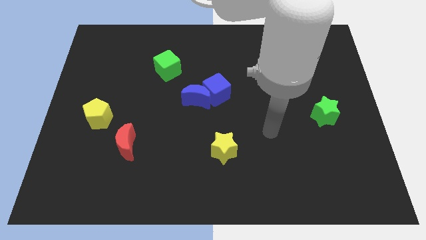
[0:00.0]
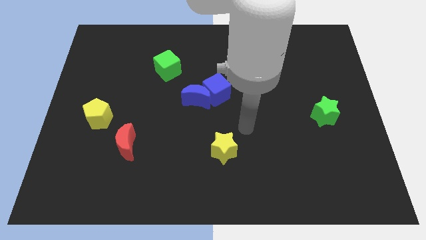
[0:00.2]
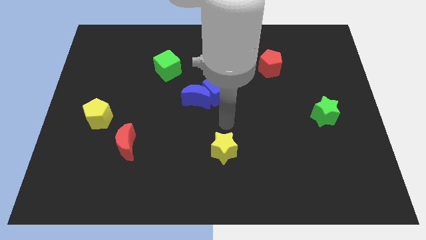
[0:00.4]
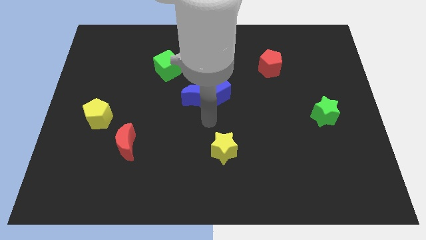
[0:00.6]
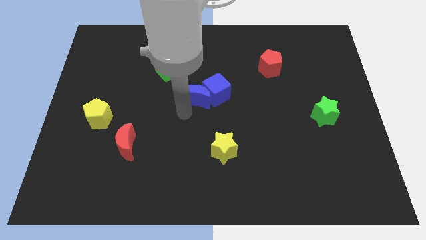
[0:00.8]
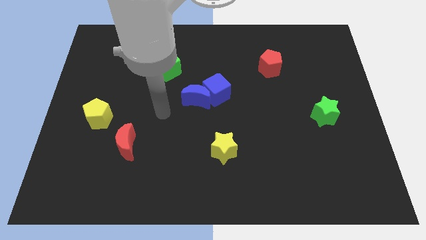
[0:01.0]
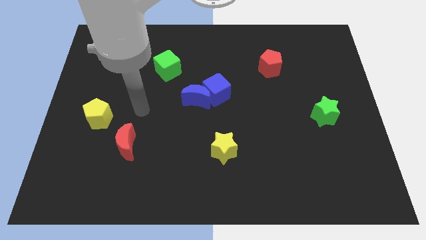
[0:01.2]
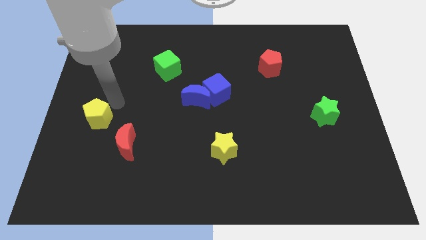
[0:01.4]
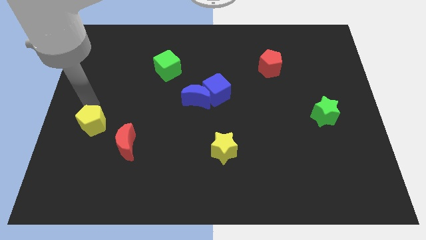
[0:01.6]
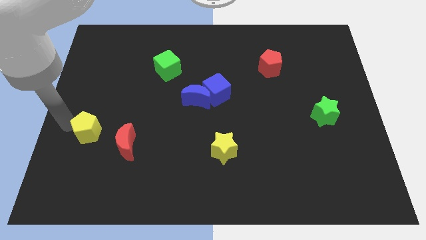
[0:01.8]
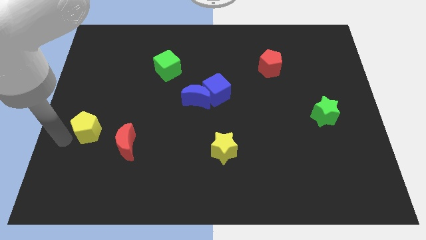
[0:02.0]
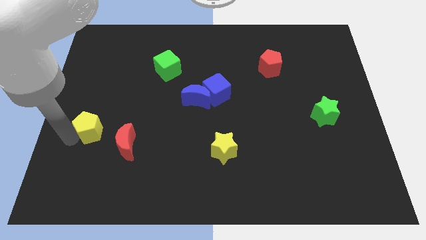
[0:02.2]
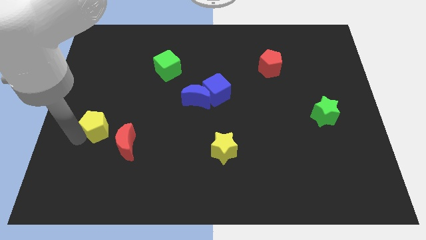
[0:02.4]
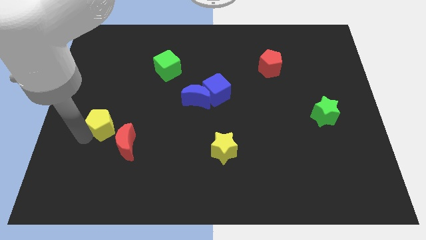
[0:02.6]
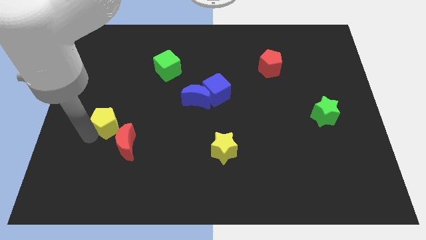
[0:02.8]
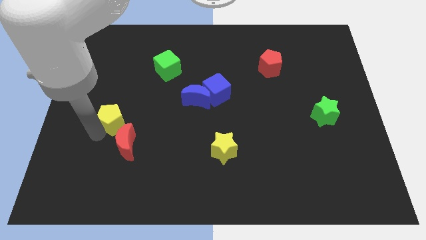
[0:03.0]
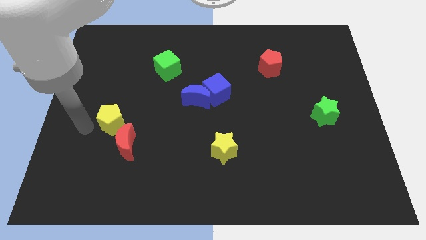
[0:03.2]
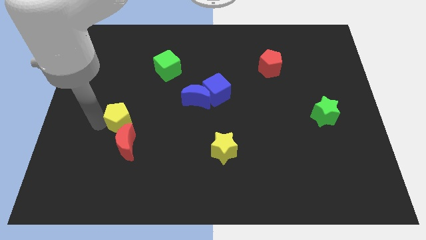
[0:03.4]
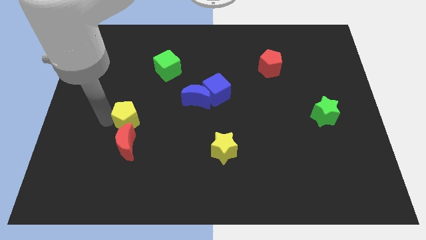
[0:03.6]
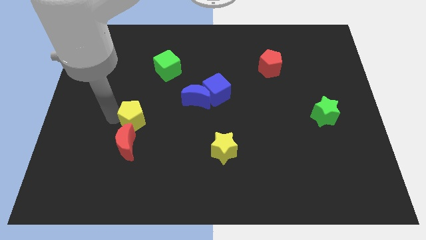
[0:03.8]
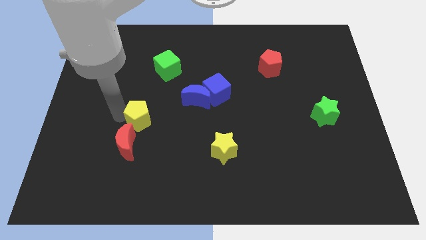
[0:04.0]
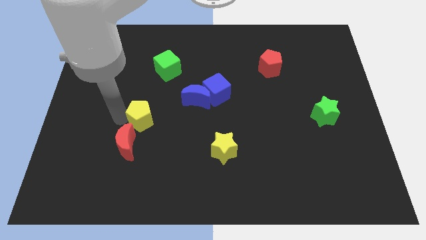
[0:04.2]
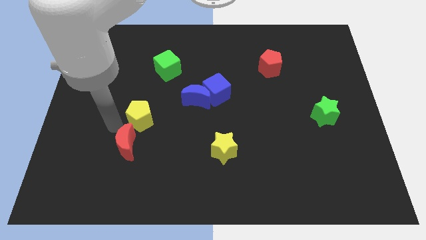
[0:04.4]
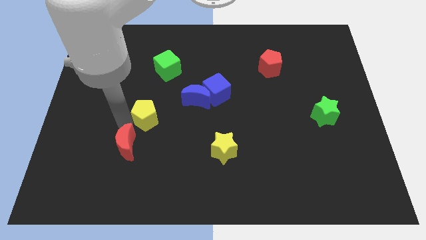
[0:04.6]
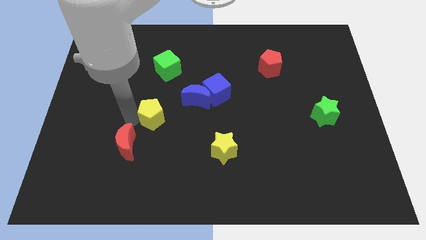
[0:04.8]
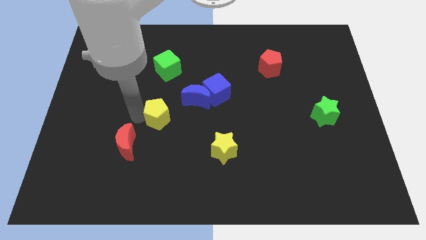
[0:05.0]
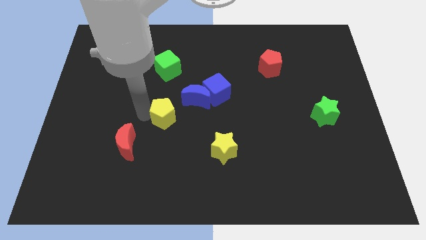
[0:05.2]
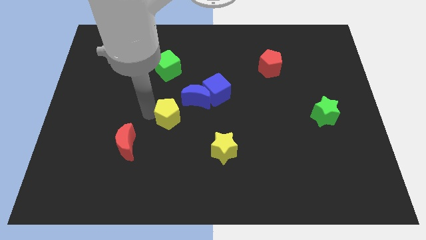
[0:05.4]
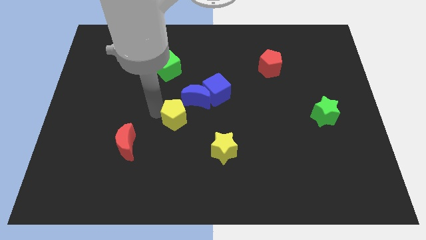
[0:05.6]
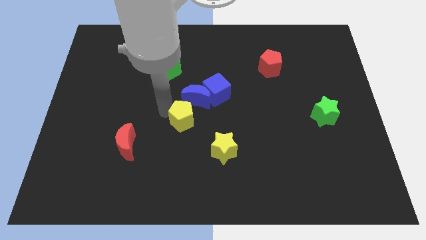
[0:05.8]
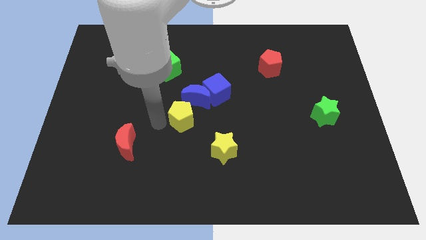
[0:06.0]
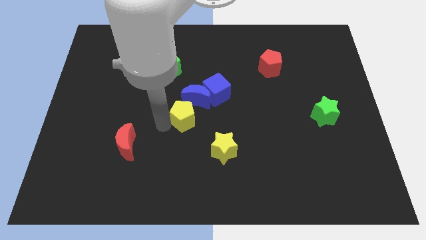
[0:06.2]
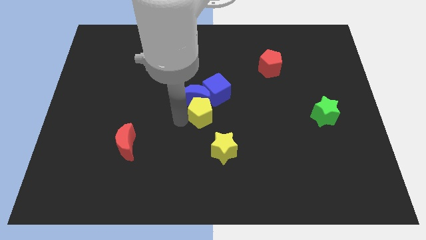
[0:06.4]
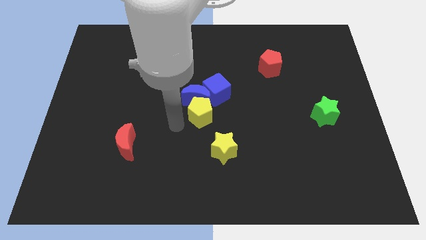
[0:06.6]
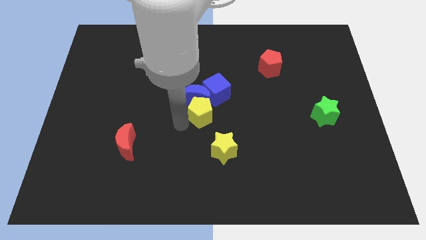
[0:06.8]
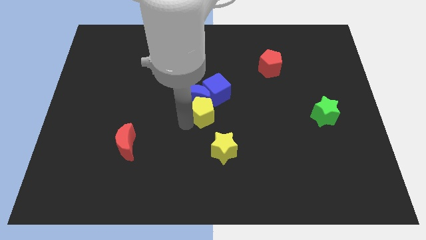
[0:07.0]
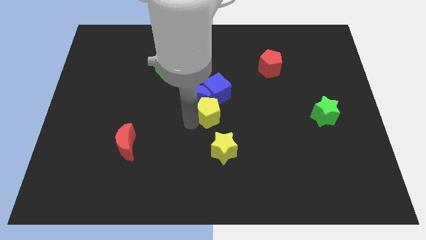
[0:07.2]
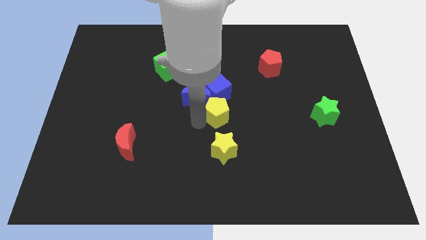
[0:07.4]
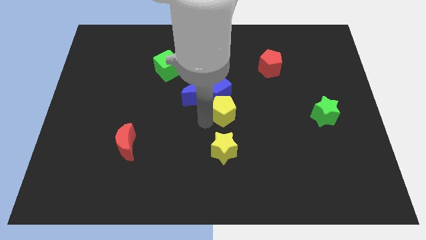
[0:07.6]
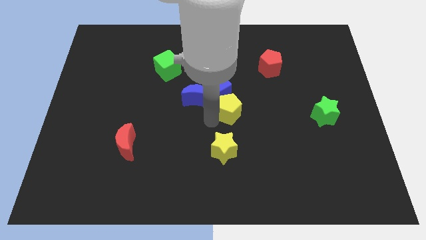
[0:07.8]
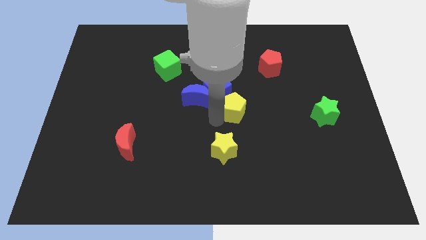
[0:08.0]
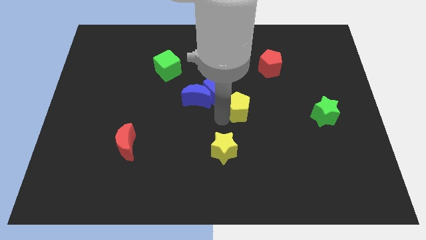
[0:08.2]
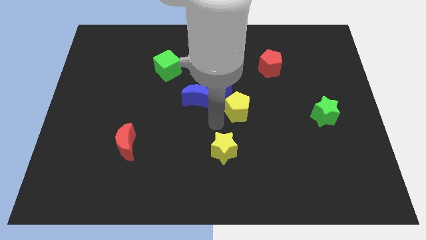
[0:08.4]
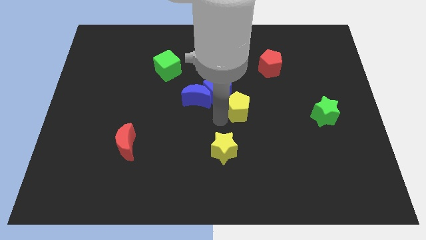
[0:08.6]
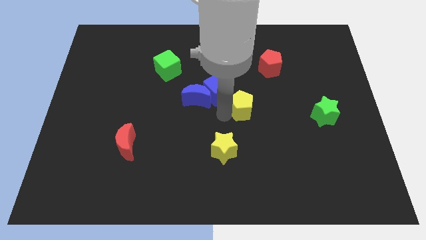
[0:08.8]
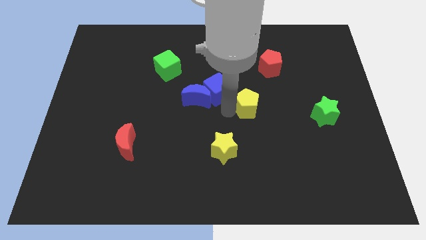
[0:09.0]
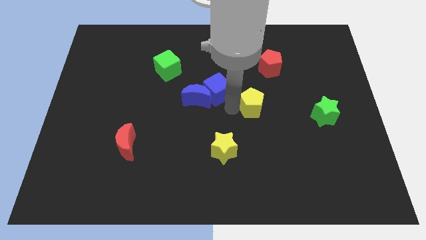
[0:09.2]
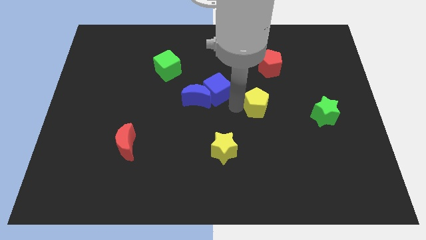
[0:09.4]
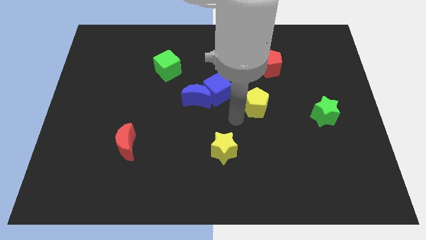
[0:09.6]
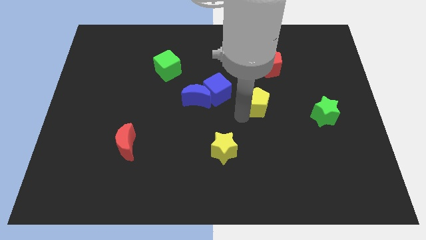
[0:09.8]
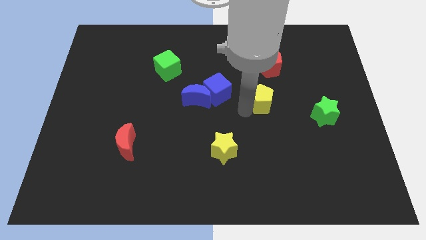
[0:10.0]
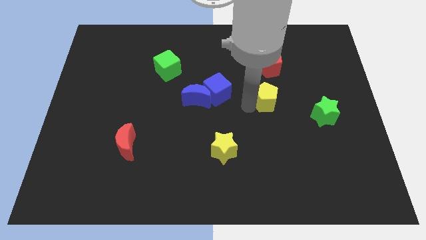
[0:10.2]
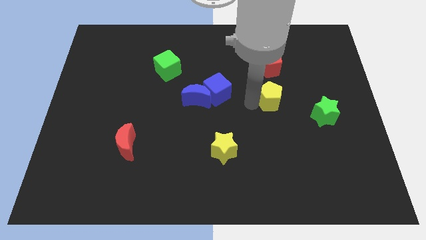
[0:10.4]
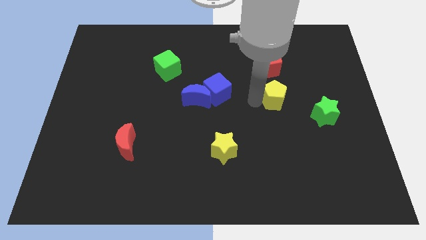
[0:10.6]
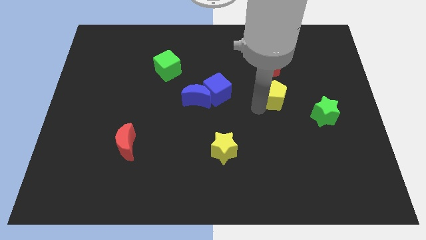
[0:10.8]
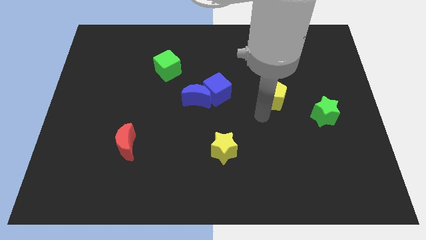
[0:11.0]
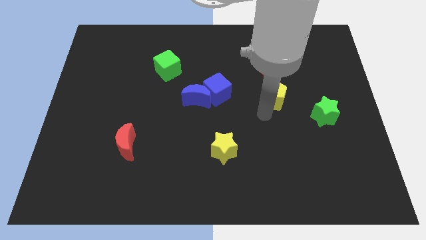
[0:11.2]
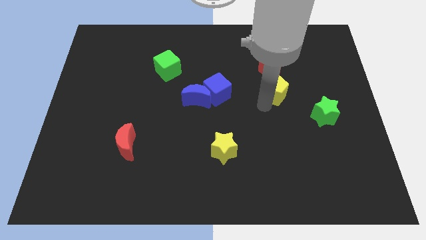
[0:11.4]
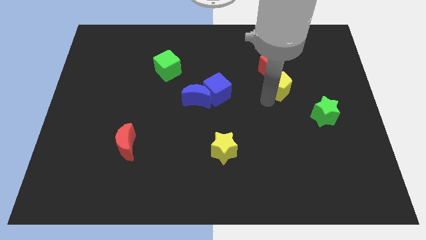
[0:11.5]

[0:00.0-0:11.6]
move the yellow pentagon to the bottom right of the red pentagon

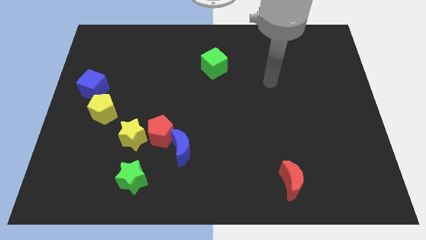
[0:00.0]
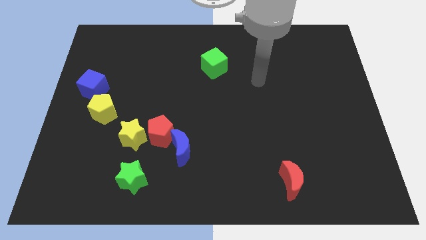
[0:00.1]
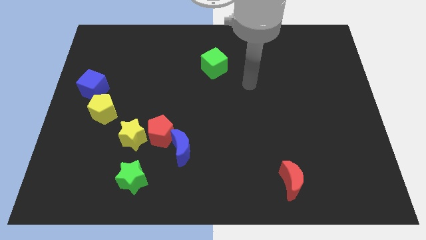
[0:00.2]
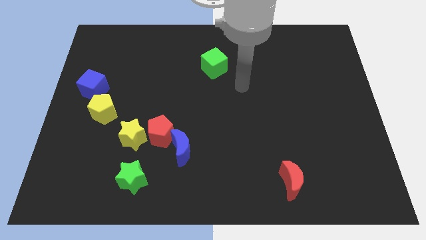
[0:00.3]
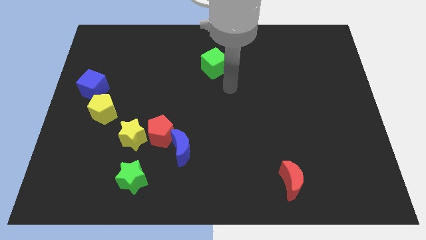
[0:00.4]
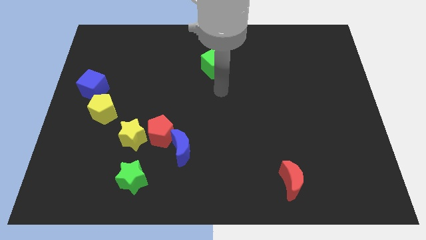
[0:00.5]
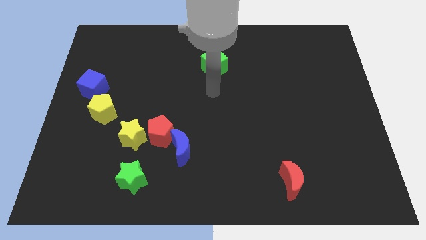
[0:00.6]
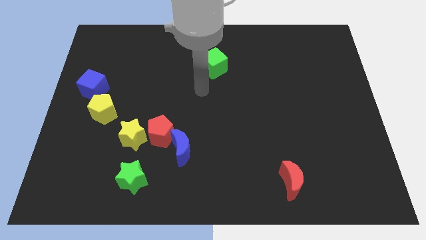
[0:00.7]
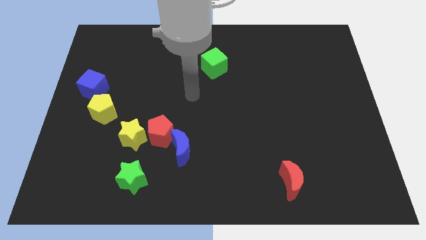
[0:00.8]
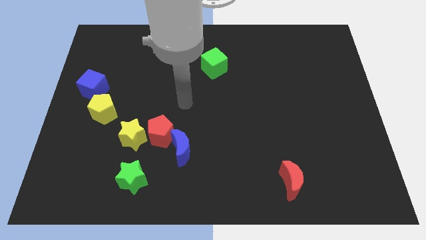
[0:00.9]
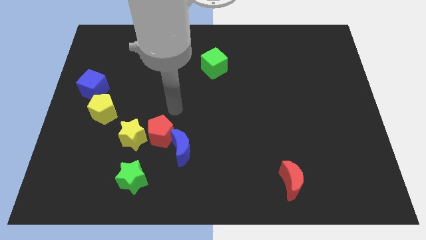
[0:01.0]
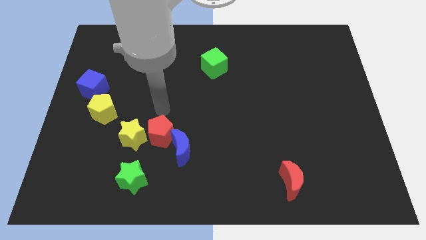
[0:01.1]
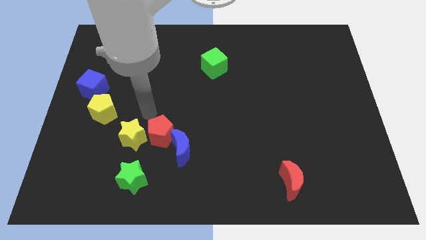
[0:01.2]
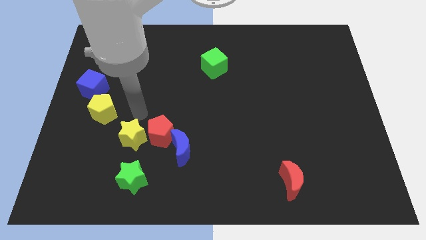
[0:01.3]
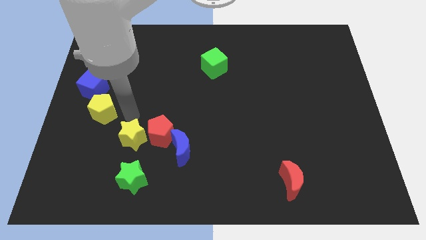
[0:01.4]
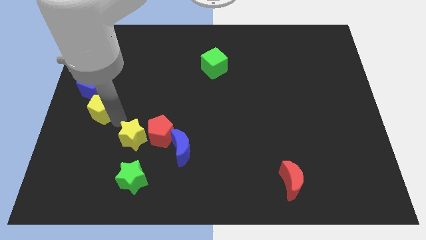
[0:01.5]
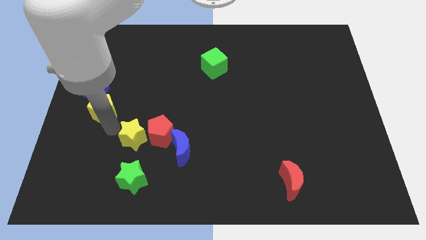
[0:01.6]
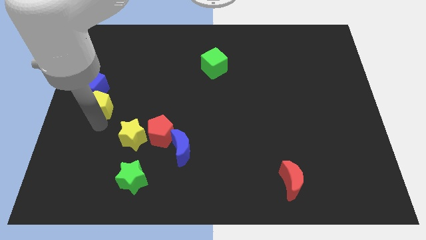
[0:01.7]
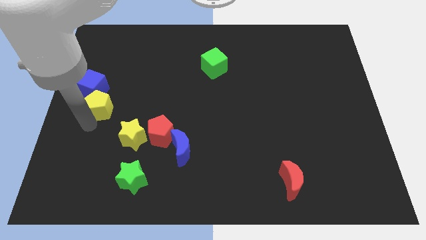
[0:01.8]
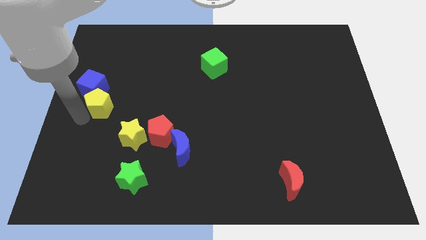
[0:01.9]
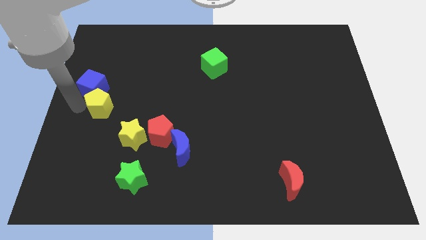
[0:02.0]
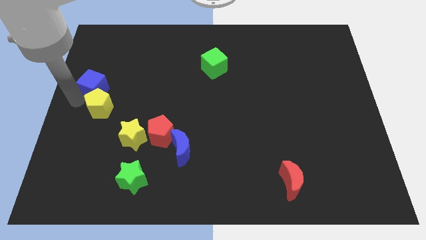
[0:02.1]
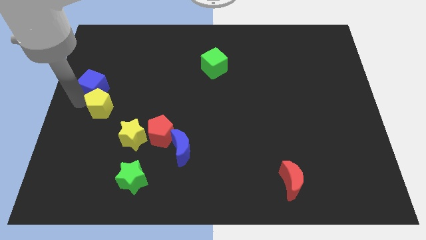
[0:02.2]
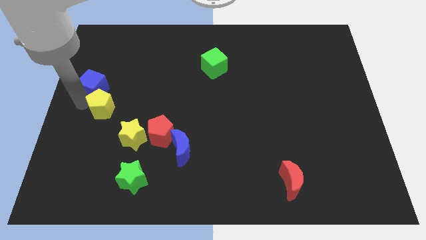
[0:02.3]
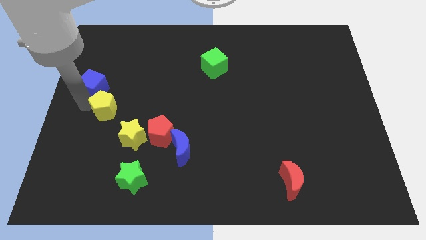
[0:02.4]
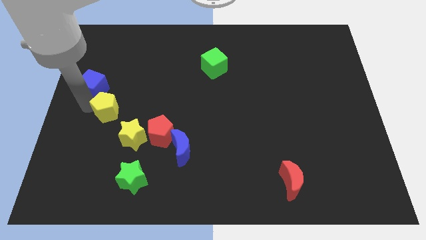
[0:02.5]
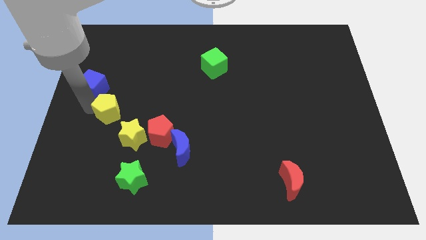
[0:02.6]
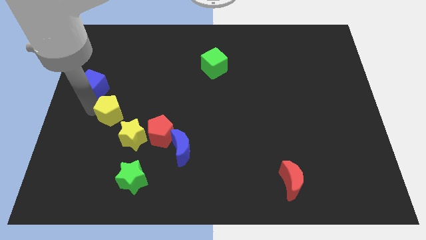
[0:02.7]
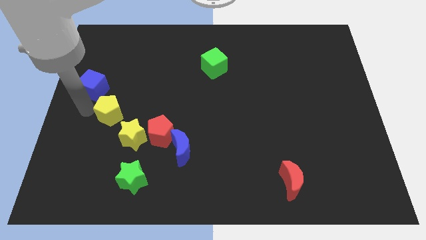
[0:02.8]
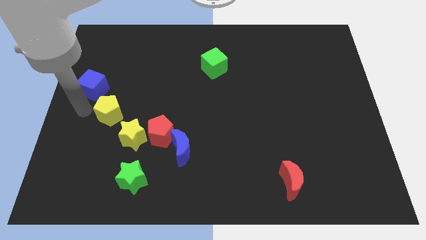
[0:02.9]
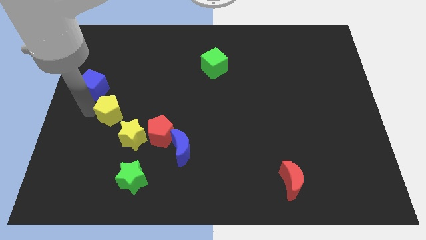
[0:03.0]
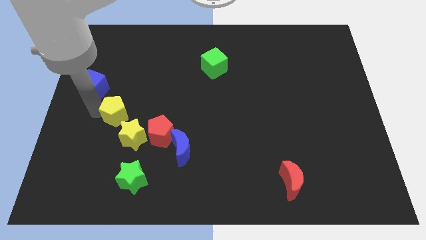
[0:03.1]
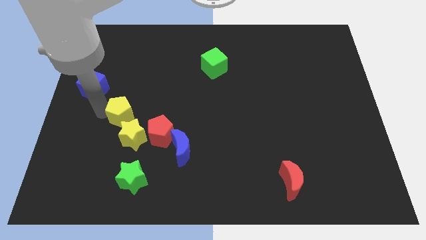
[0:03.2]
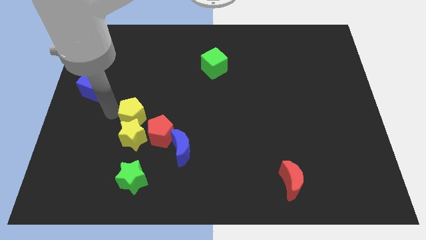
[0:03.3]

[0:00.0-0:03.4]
move the yellow pentagon to the top right of the yellow star
